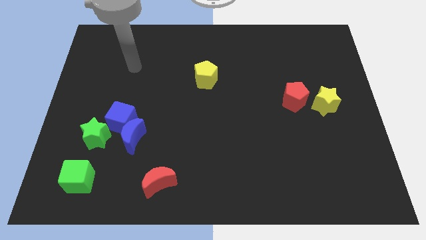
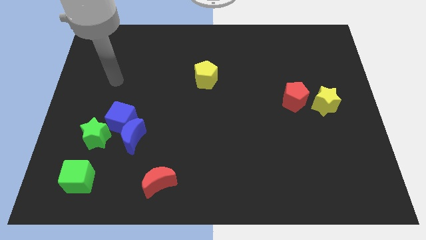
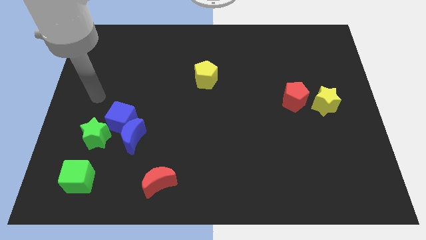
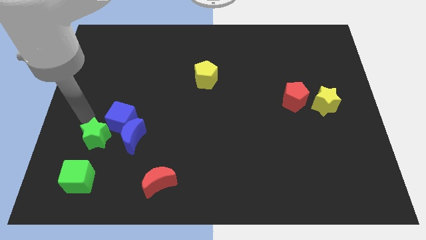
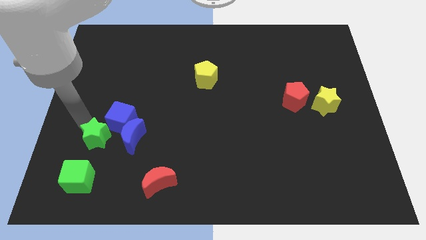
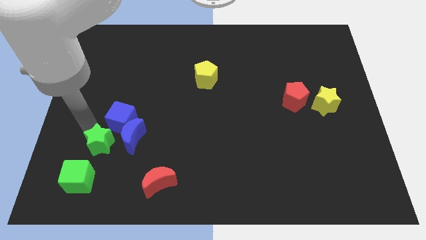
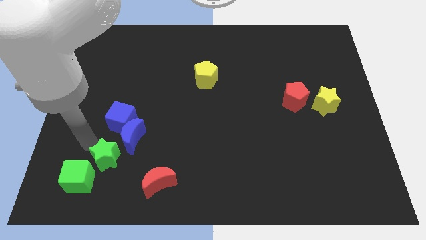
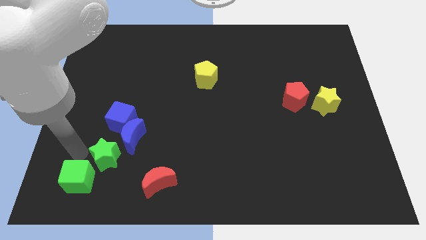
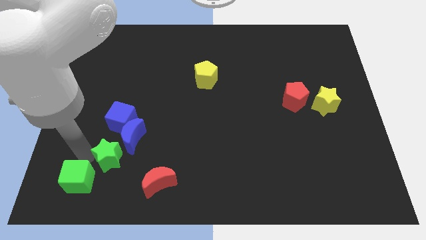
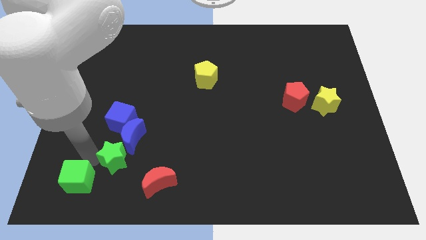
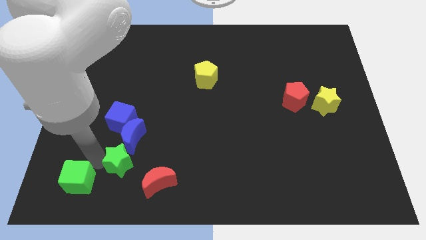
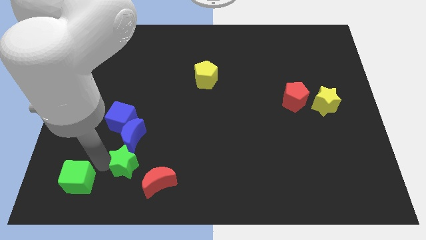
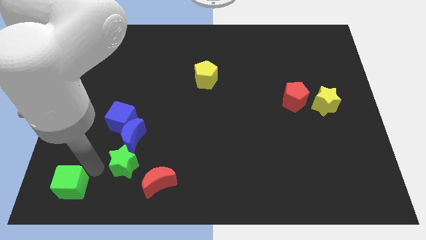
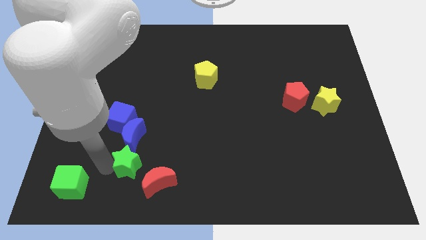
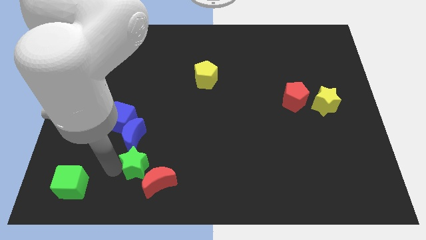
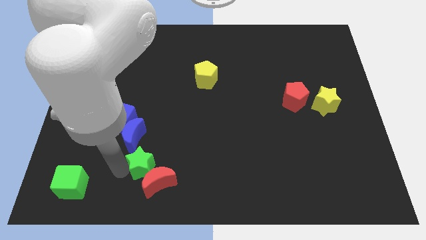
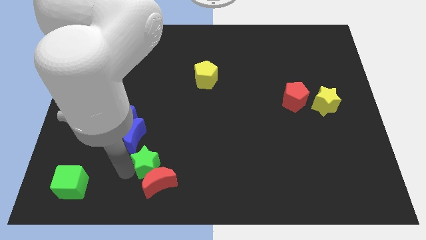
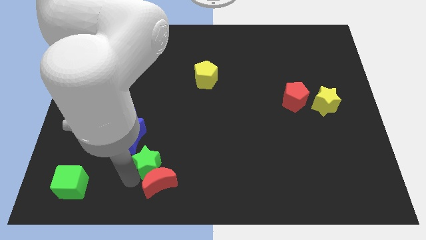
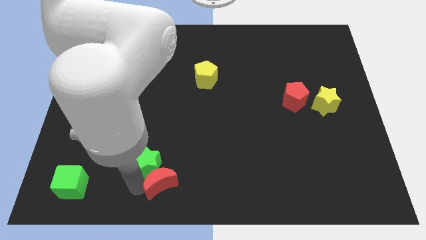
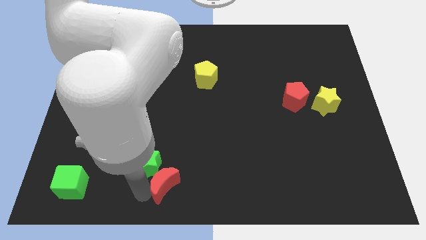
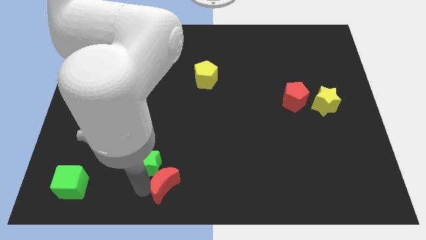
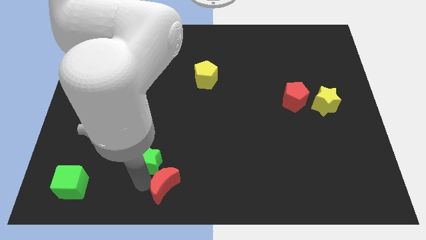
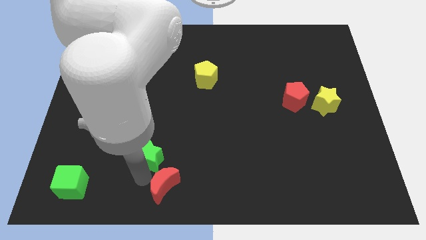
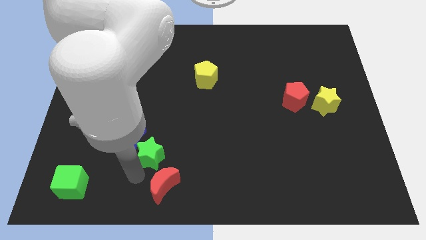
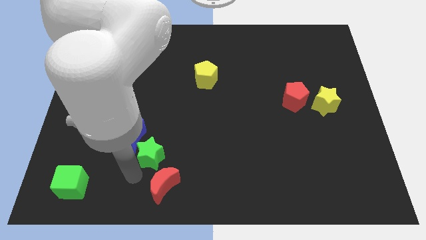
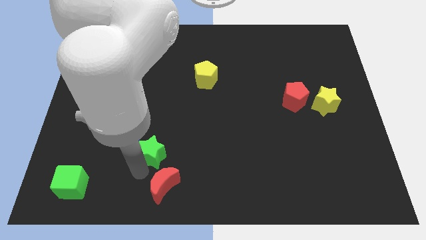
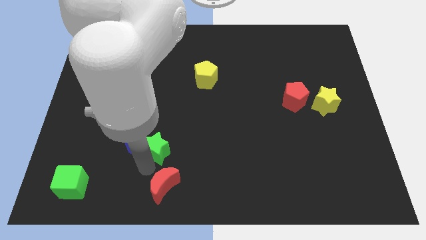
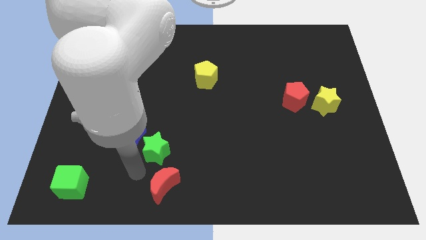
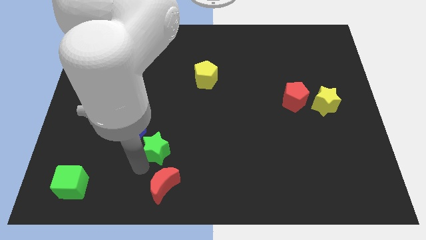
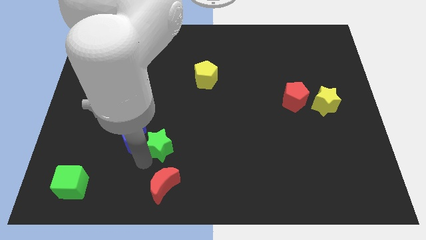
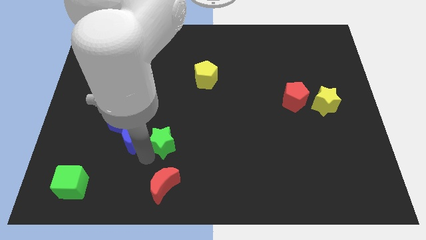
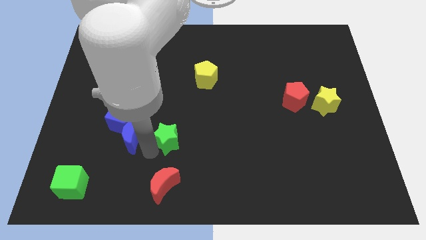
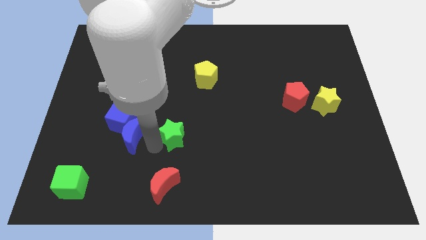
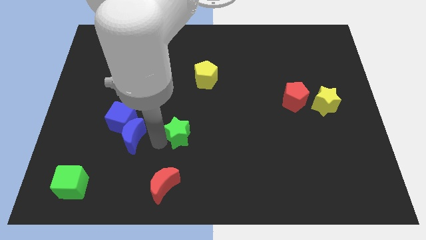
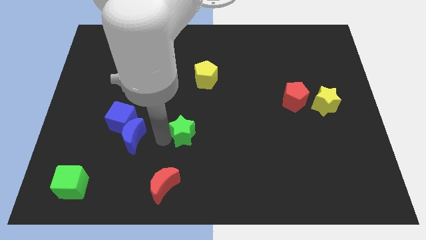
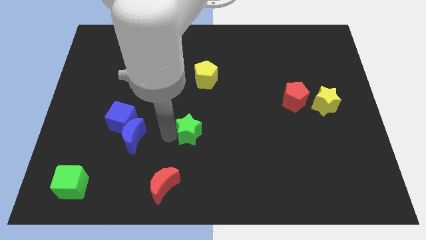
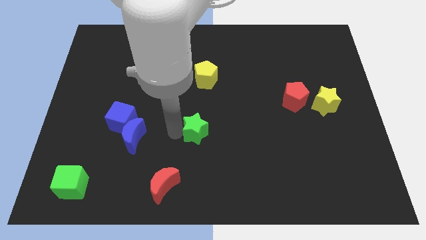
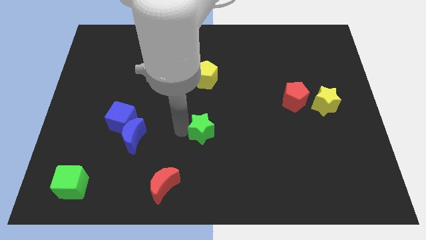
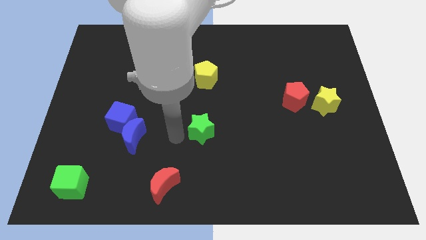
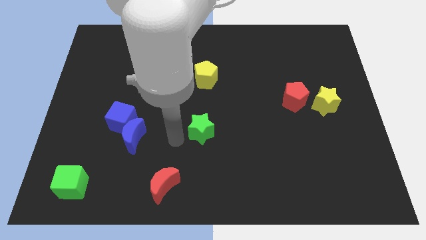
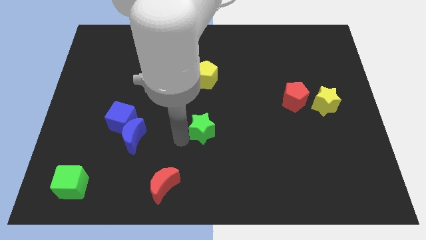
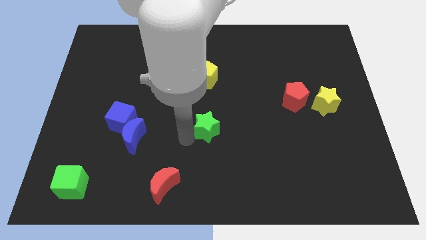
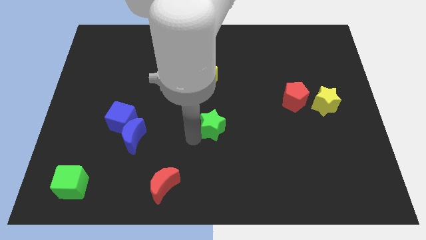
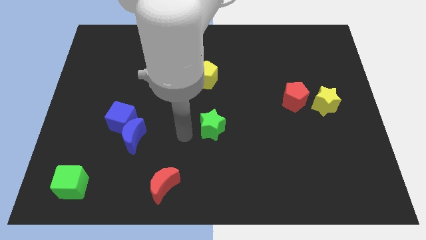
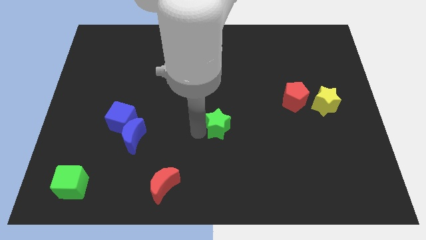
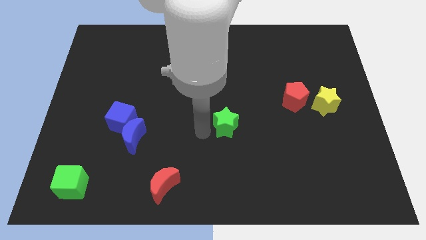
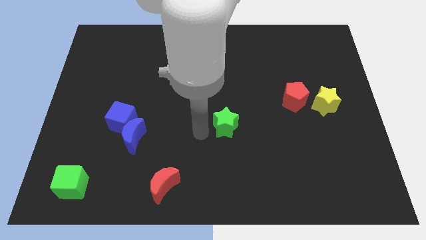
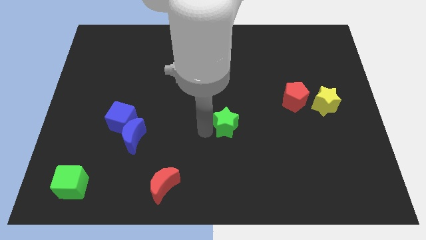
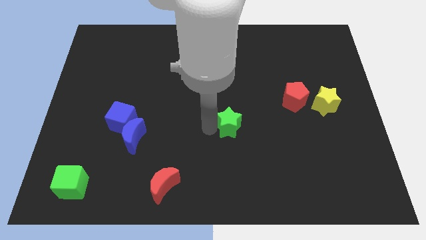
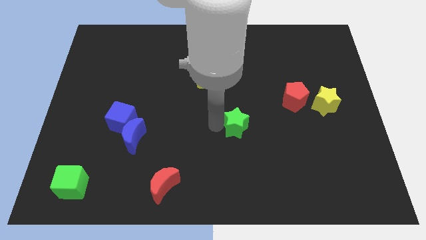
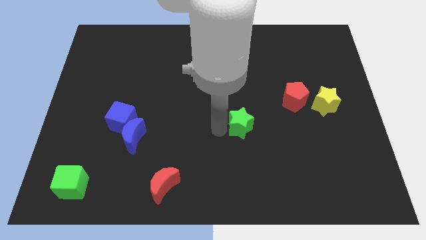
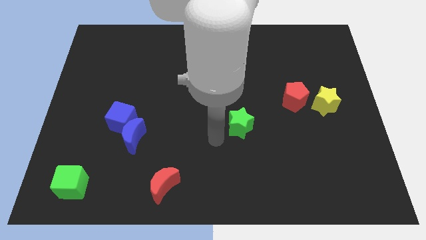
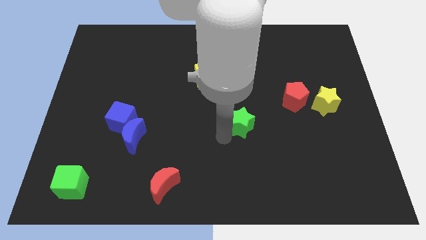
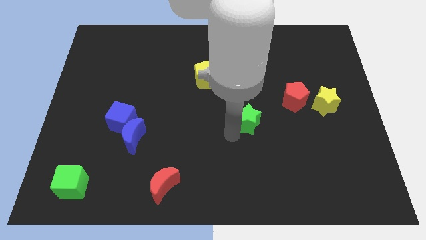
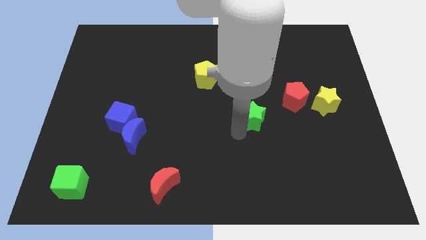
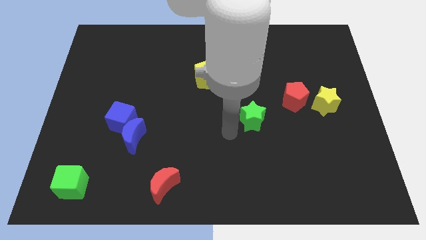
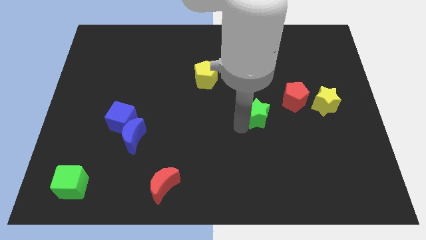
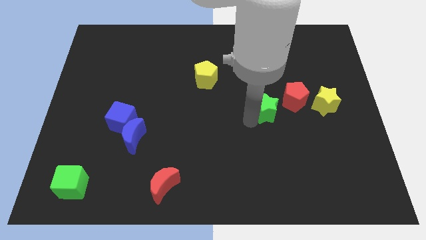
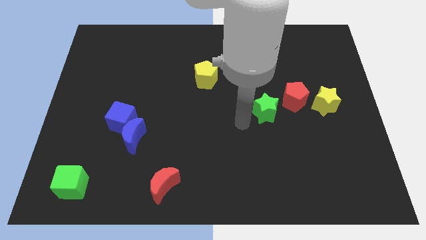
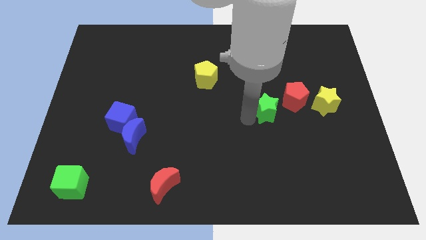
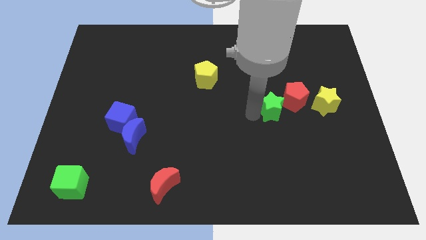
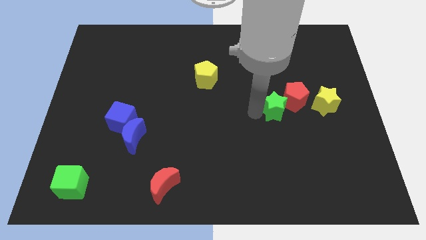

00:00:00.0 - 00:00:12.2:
put the green star next to the red pentagon

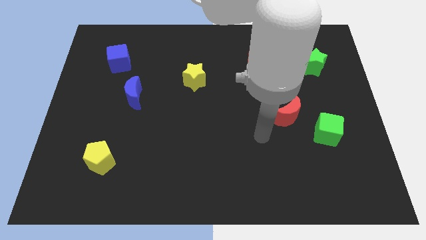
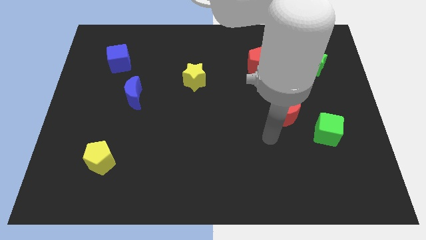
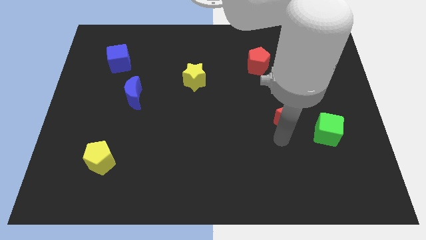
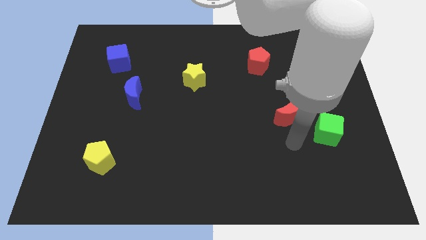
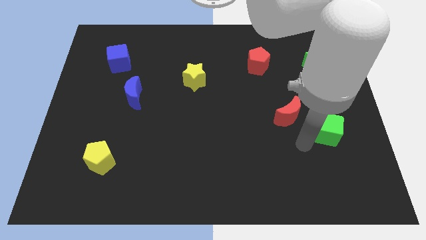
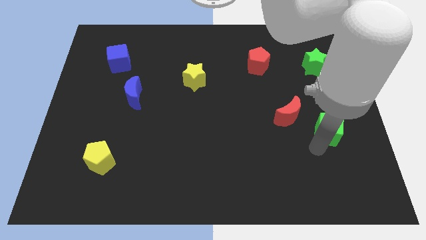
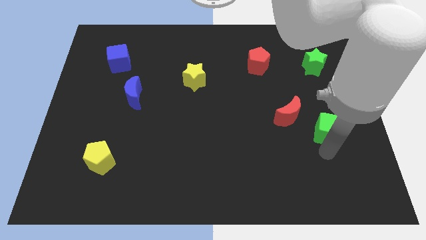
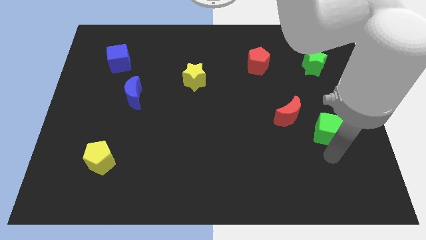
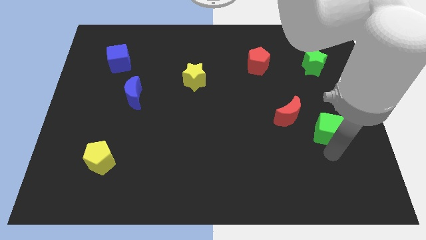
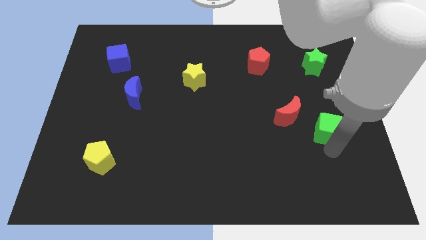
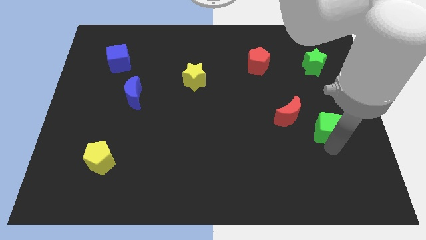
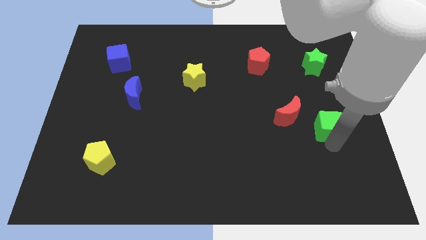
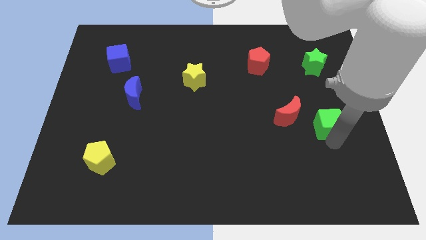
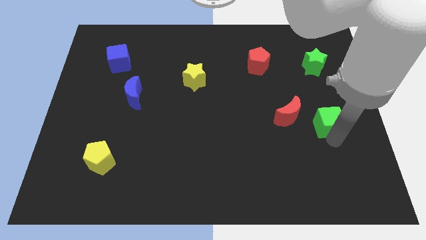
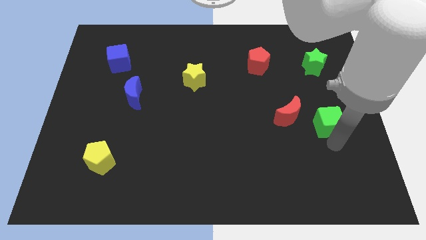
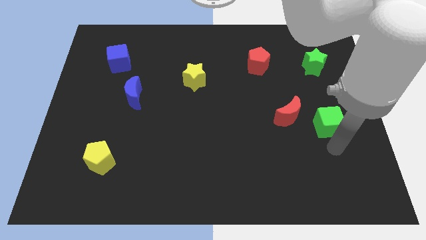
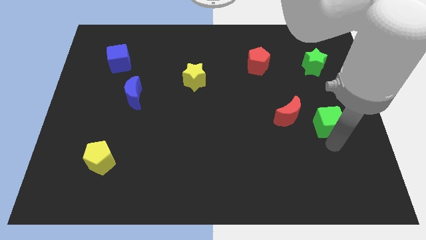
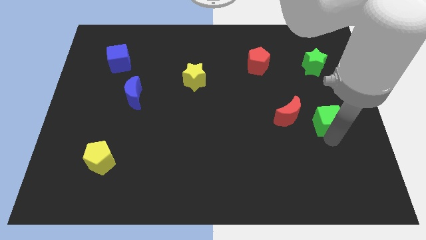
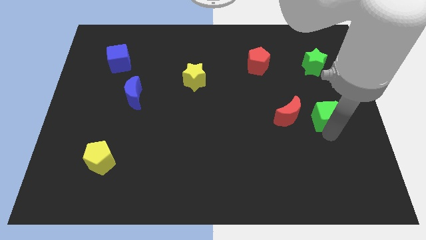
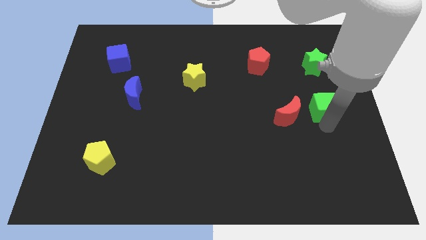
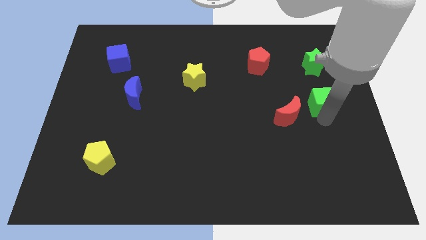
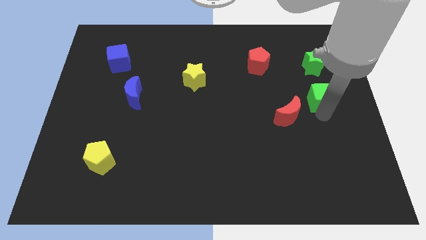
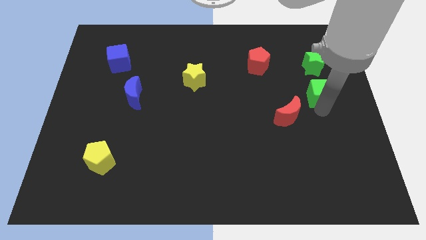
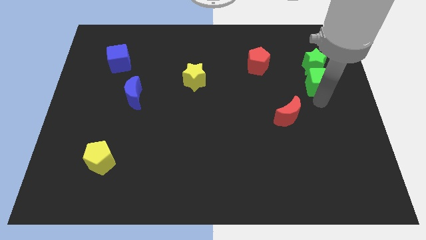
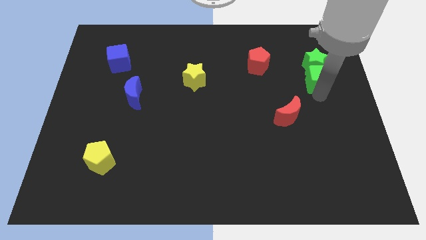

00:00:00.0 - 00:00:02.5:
slide the green cube close to the green star
